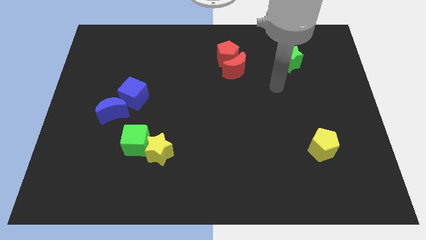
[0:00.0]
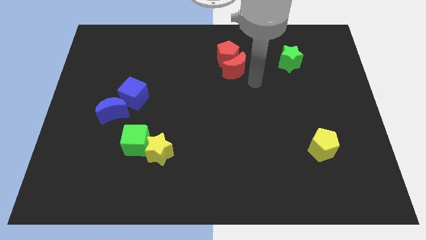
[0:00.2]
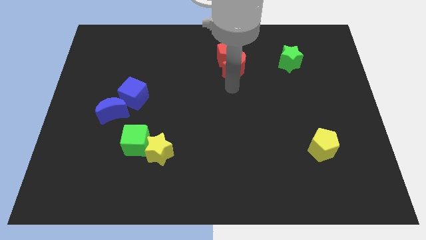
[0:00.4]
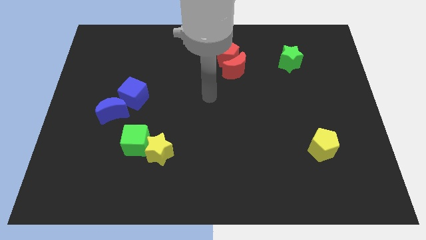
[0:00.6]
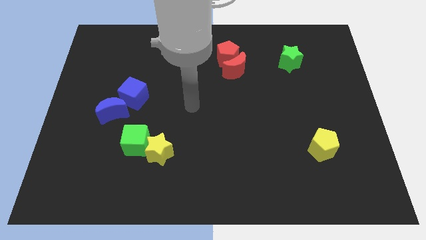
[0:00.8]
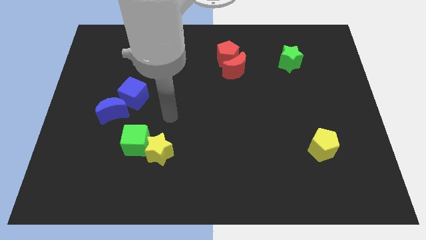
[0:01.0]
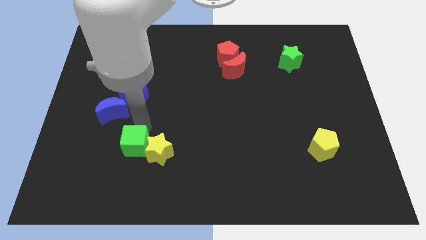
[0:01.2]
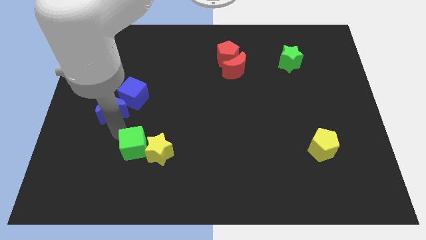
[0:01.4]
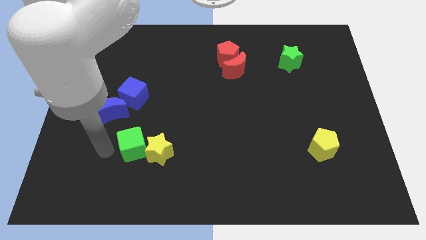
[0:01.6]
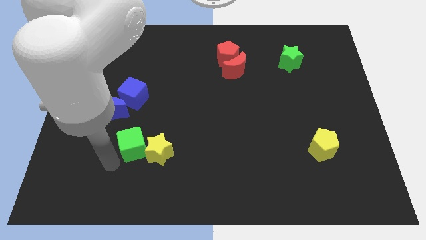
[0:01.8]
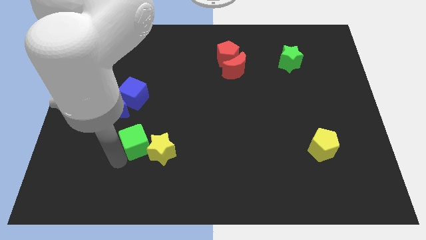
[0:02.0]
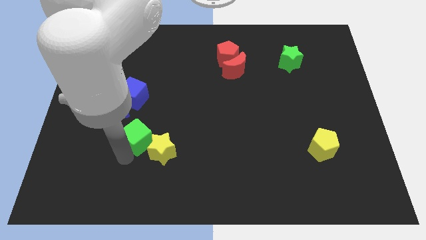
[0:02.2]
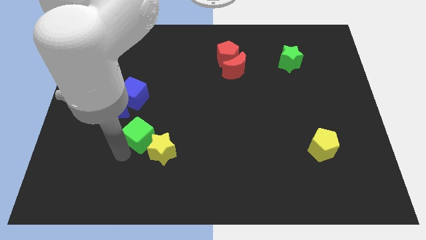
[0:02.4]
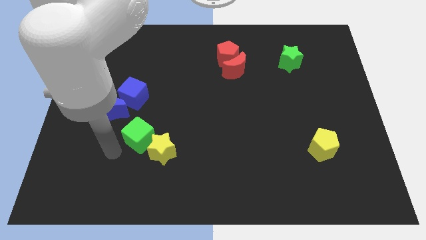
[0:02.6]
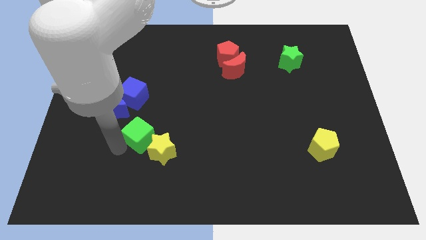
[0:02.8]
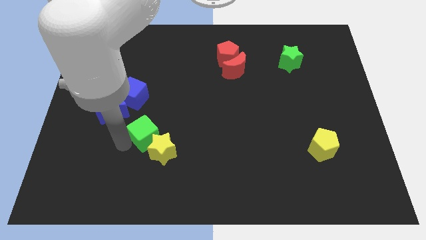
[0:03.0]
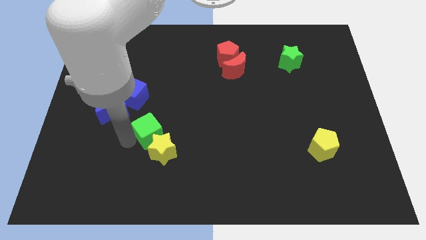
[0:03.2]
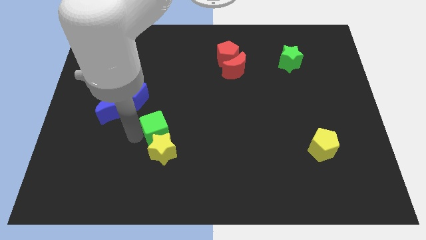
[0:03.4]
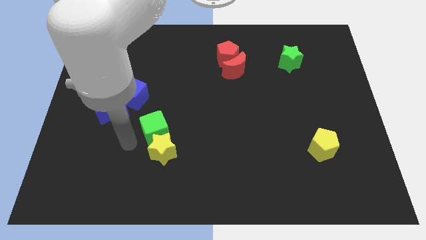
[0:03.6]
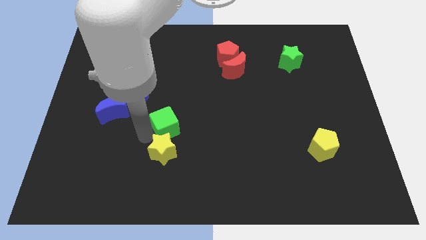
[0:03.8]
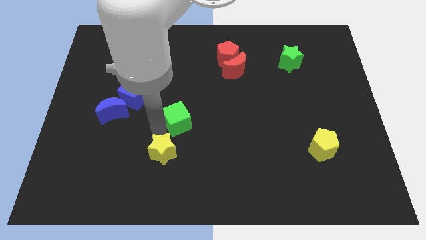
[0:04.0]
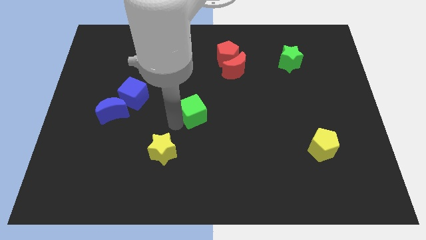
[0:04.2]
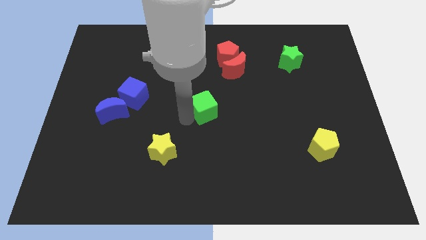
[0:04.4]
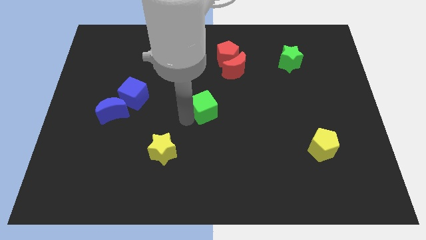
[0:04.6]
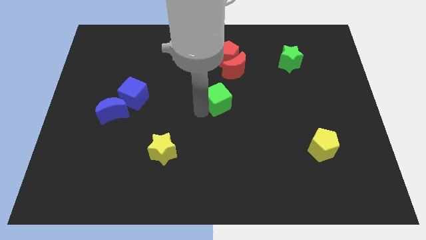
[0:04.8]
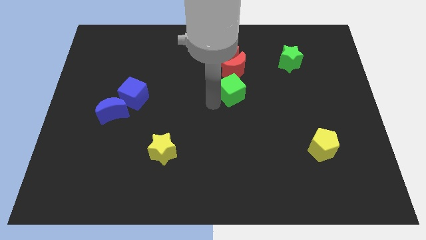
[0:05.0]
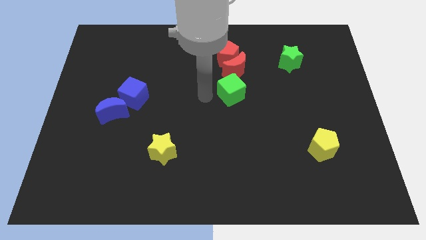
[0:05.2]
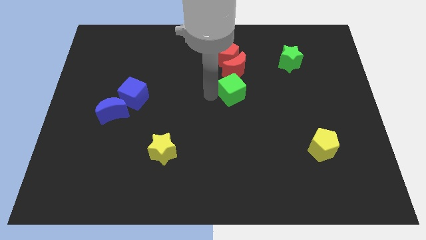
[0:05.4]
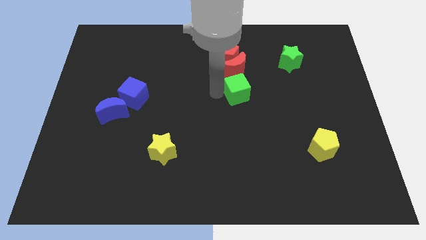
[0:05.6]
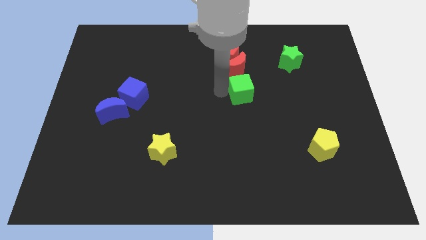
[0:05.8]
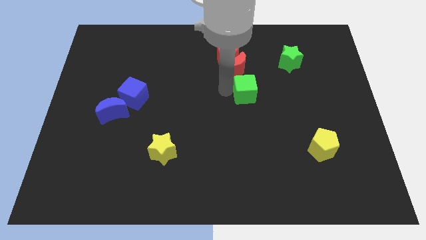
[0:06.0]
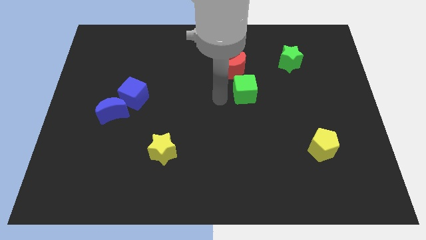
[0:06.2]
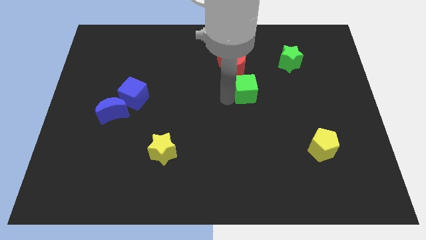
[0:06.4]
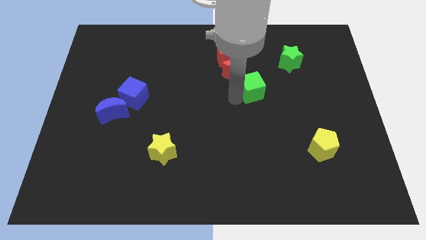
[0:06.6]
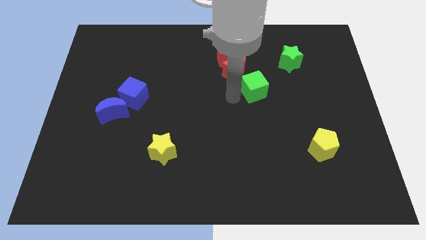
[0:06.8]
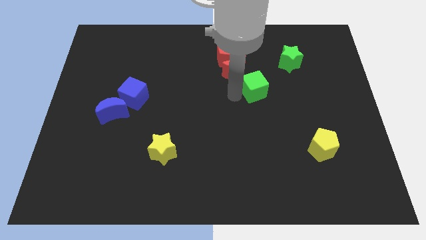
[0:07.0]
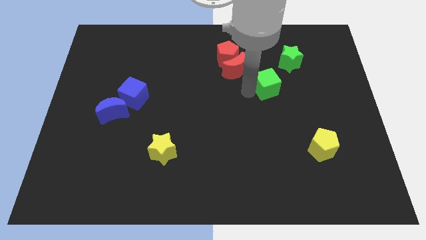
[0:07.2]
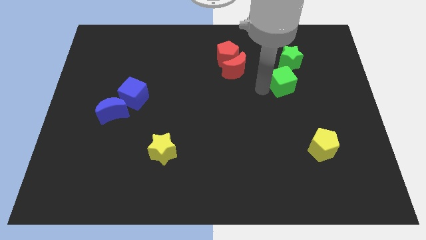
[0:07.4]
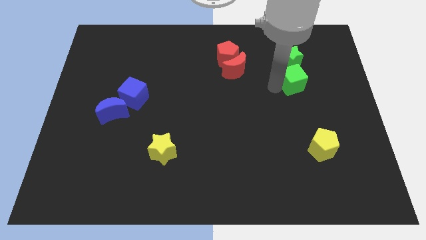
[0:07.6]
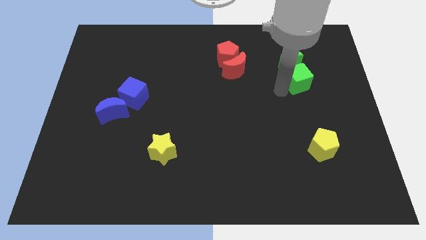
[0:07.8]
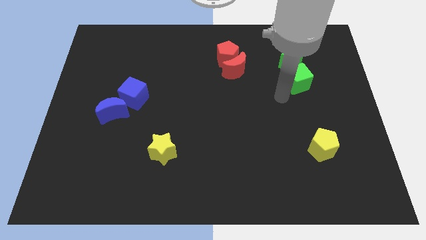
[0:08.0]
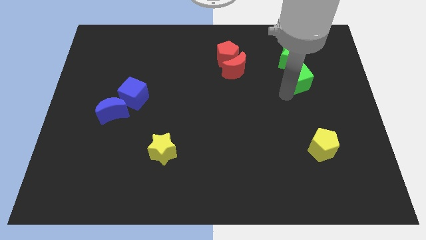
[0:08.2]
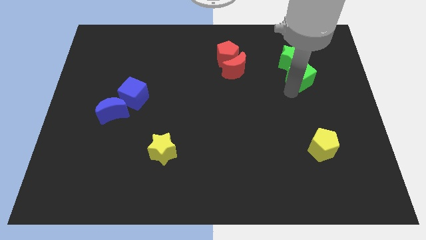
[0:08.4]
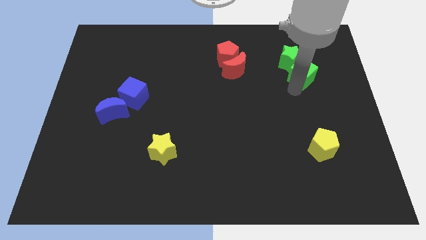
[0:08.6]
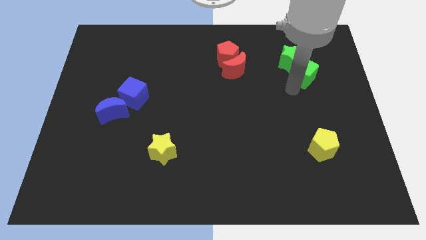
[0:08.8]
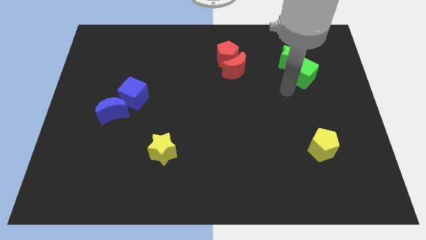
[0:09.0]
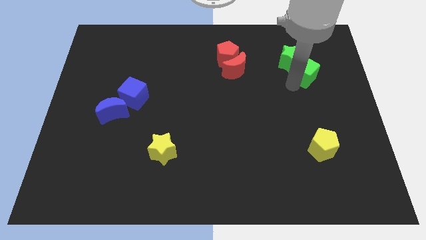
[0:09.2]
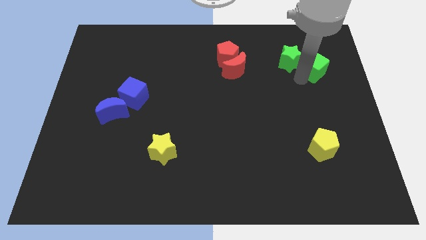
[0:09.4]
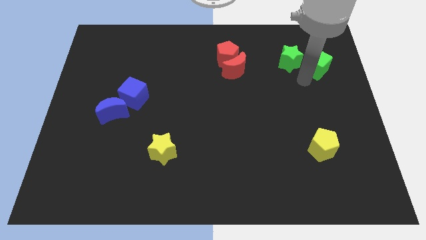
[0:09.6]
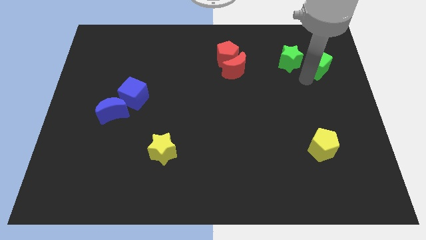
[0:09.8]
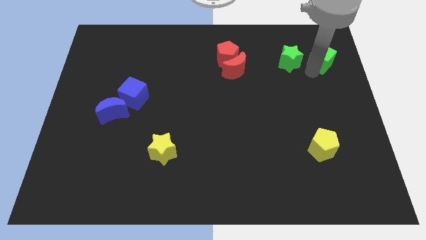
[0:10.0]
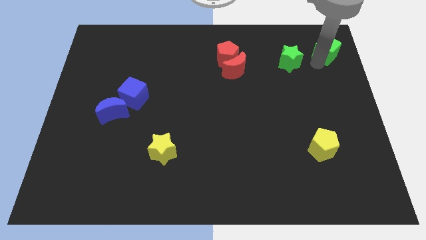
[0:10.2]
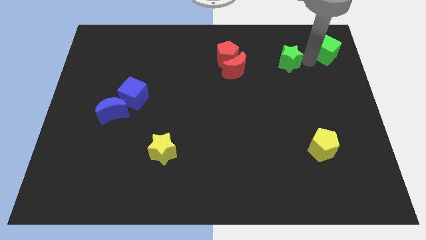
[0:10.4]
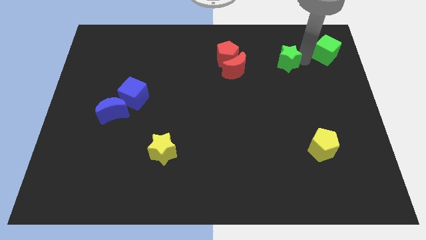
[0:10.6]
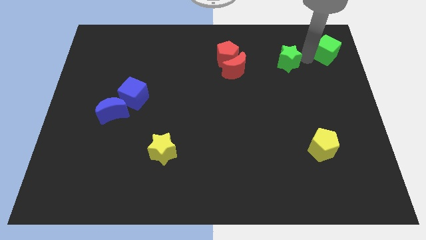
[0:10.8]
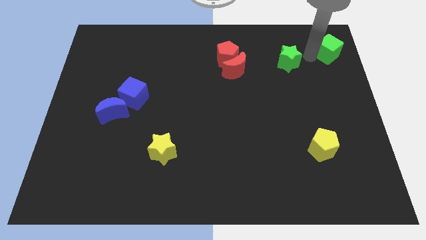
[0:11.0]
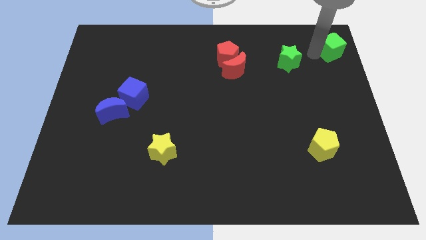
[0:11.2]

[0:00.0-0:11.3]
slide the green cube to the top right of the board
